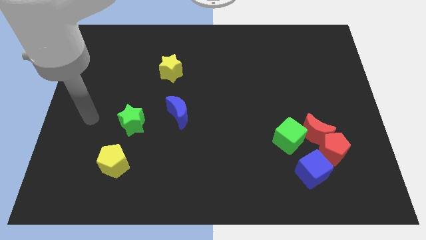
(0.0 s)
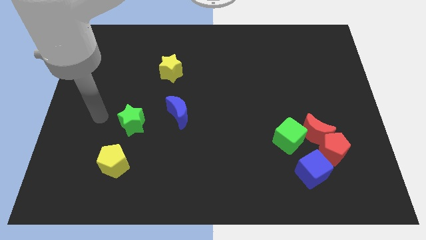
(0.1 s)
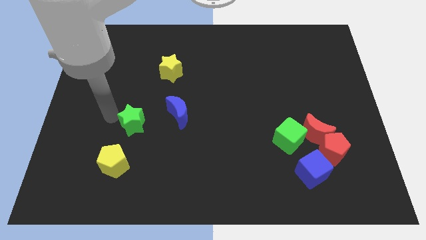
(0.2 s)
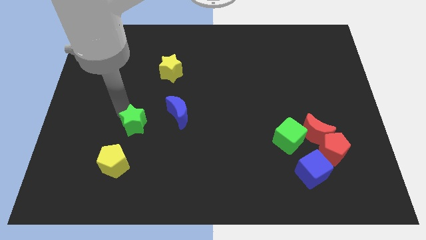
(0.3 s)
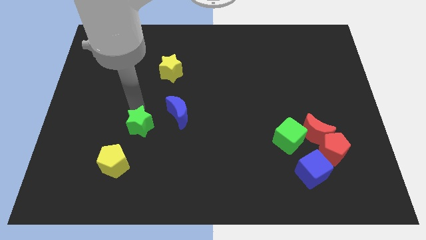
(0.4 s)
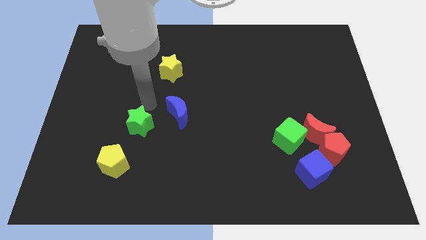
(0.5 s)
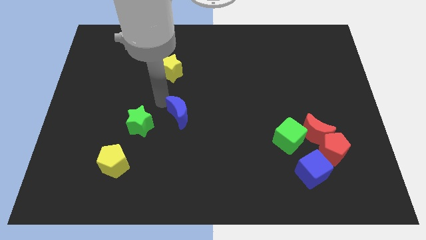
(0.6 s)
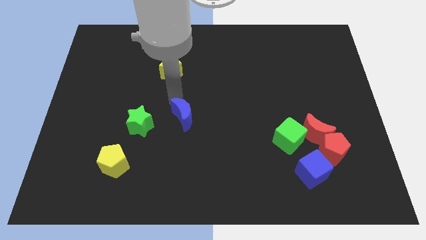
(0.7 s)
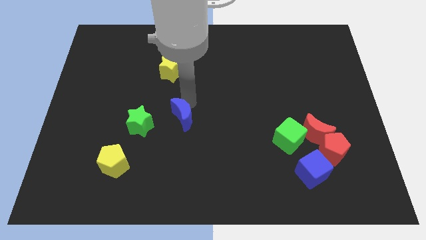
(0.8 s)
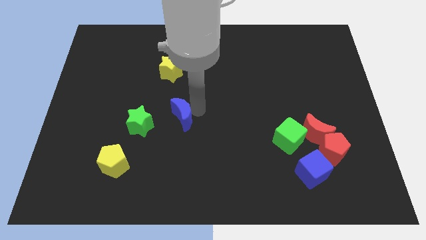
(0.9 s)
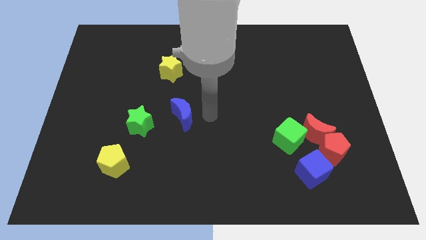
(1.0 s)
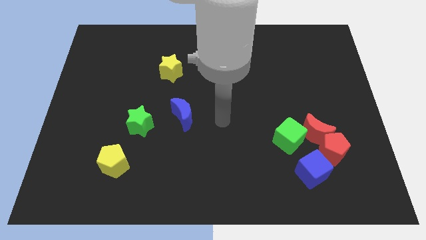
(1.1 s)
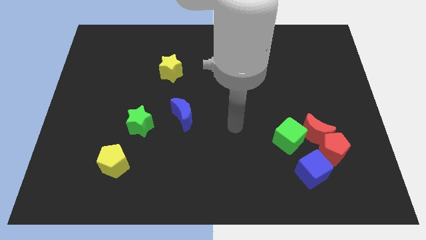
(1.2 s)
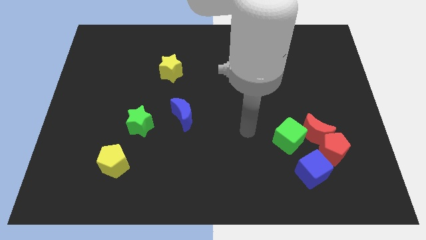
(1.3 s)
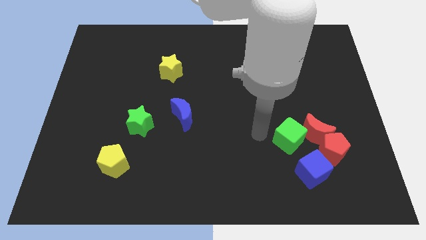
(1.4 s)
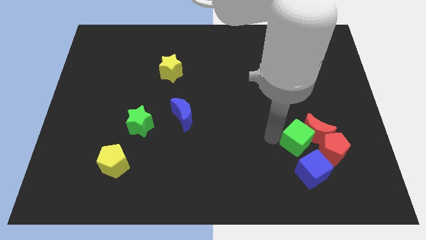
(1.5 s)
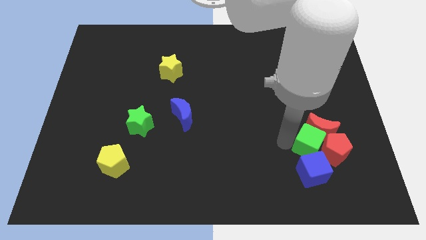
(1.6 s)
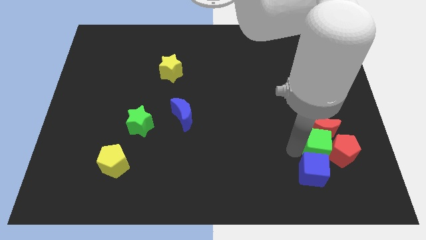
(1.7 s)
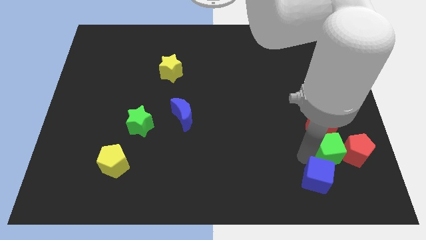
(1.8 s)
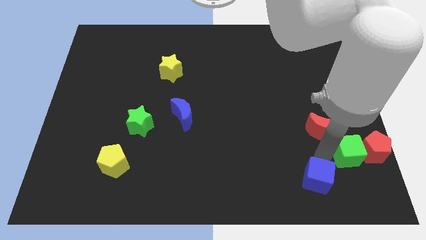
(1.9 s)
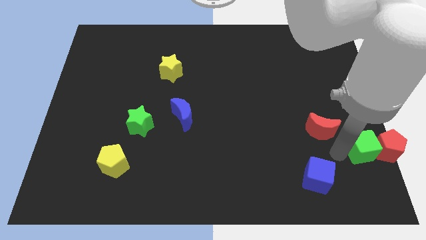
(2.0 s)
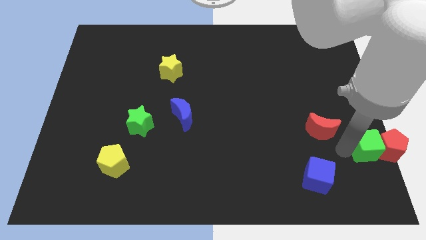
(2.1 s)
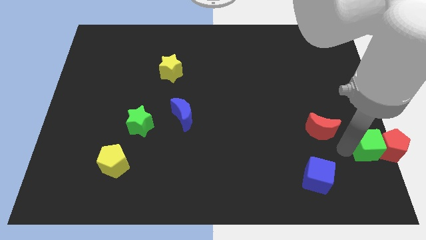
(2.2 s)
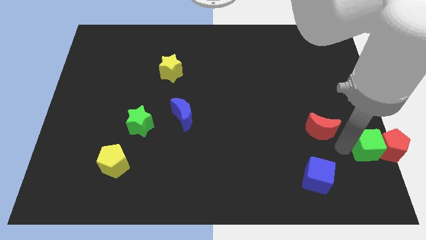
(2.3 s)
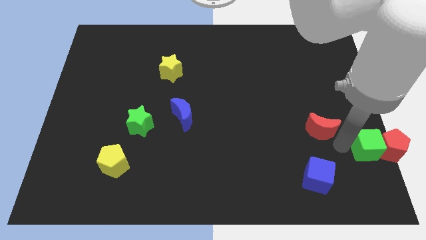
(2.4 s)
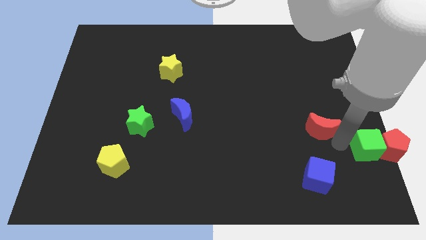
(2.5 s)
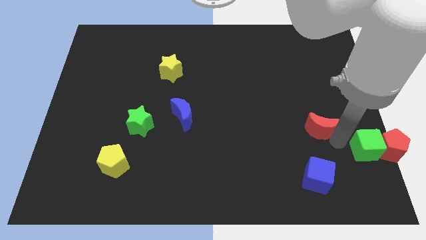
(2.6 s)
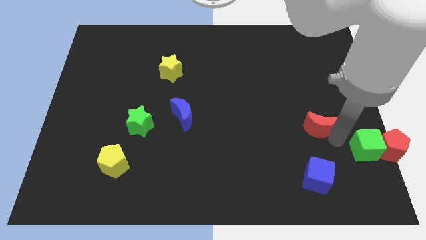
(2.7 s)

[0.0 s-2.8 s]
move the red moon away from the clump

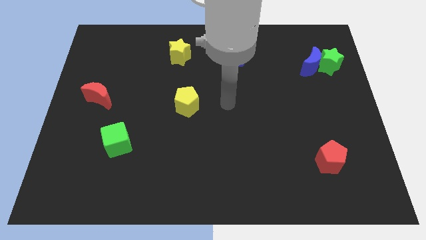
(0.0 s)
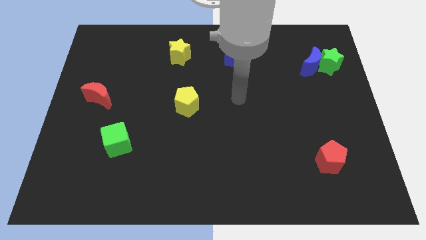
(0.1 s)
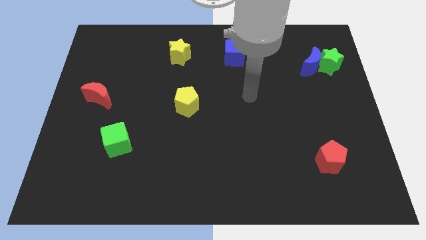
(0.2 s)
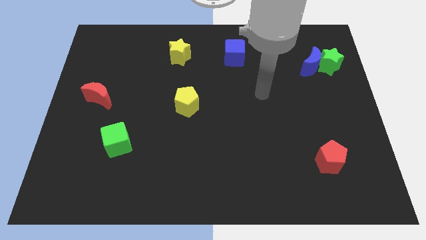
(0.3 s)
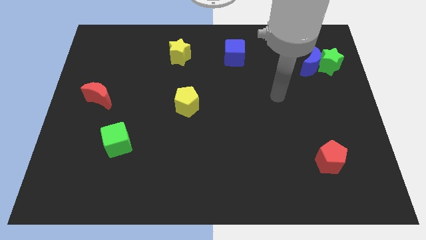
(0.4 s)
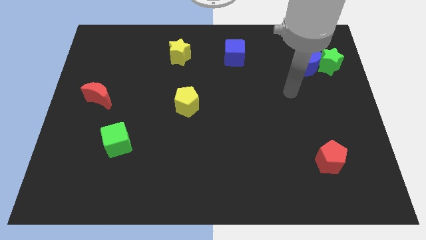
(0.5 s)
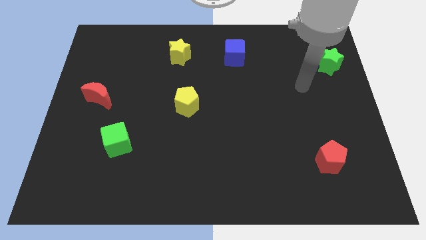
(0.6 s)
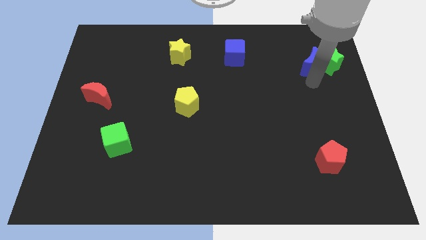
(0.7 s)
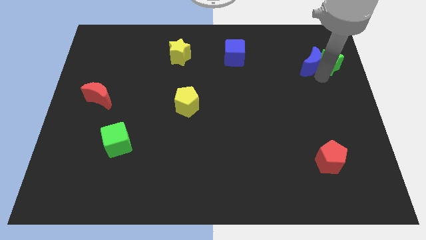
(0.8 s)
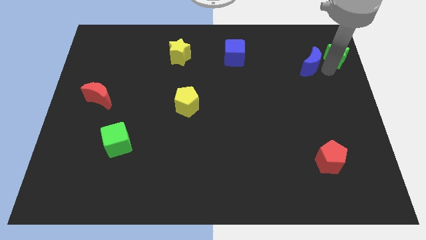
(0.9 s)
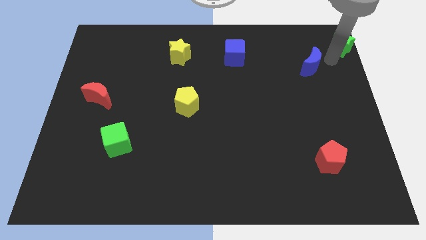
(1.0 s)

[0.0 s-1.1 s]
separate the blue moon from the green star

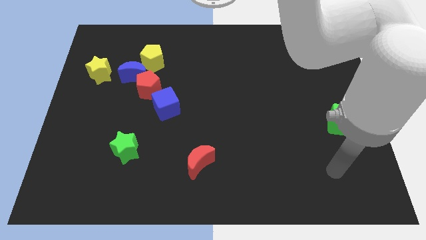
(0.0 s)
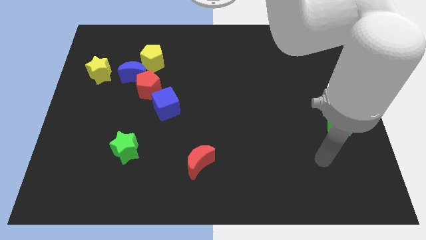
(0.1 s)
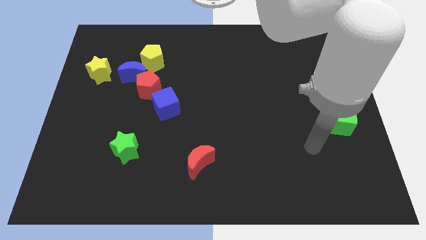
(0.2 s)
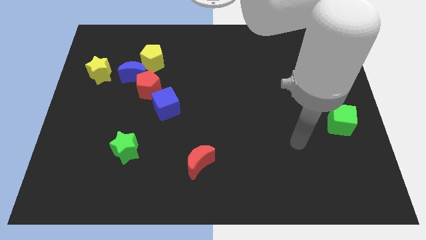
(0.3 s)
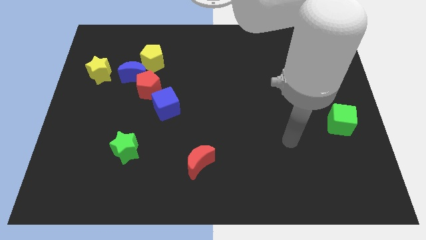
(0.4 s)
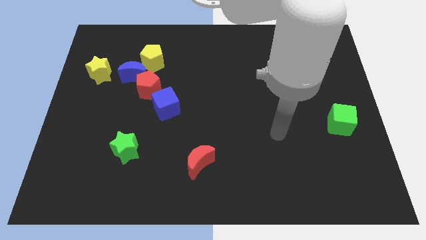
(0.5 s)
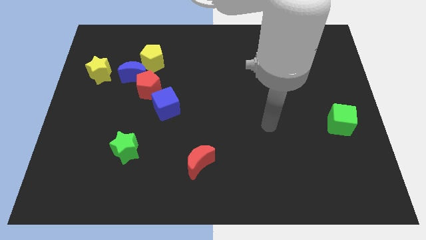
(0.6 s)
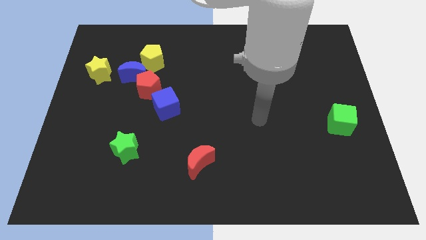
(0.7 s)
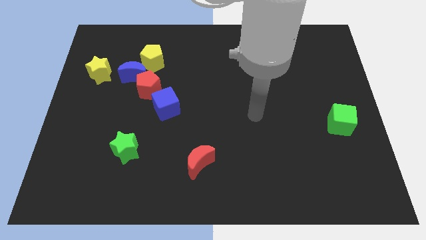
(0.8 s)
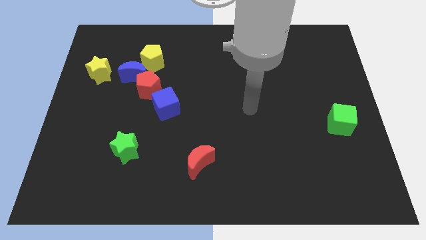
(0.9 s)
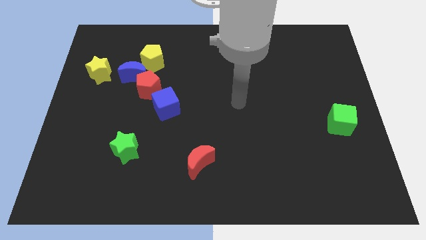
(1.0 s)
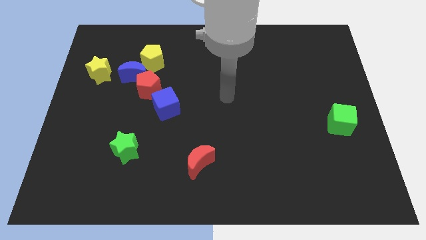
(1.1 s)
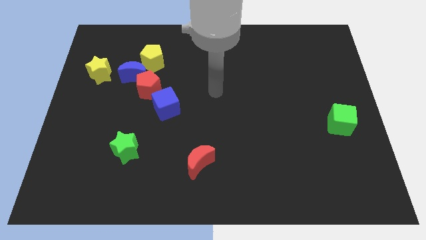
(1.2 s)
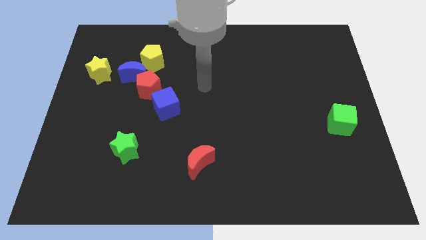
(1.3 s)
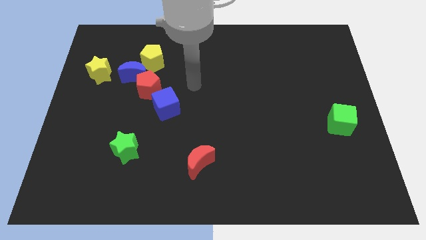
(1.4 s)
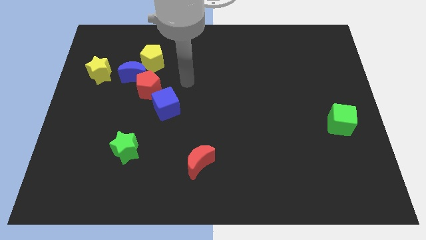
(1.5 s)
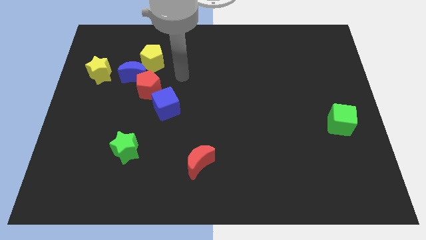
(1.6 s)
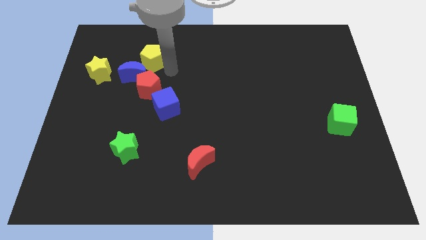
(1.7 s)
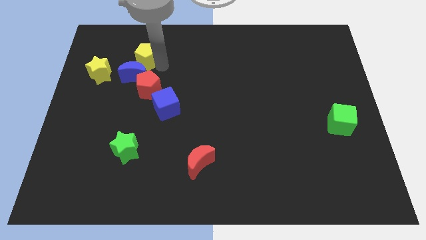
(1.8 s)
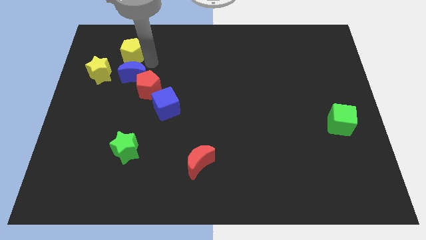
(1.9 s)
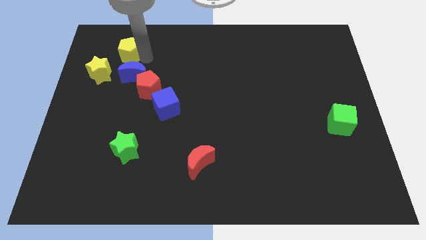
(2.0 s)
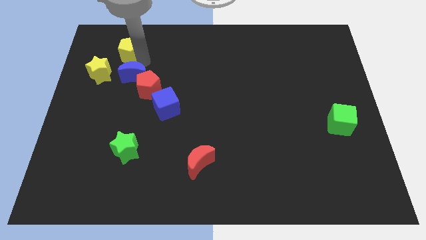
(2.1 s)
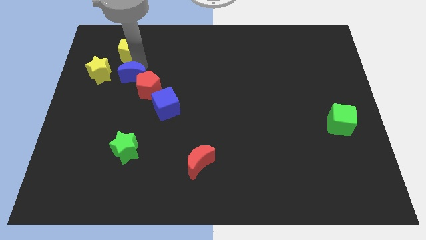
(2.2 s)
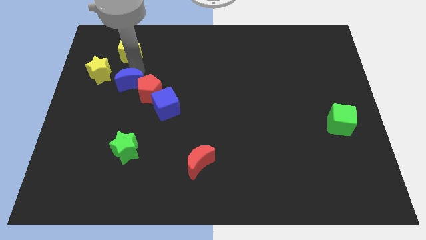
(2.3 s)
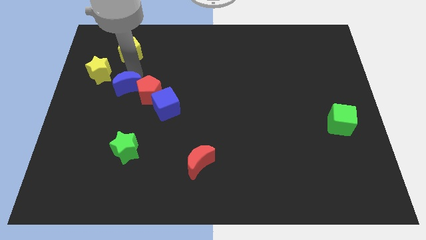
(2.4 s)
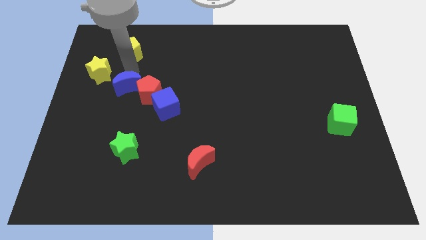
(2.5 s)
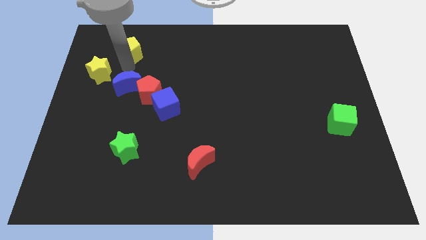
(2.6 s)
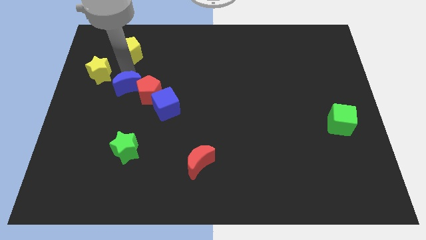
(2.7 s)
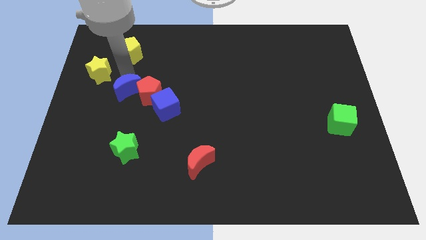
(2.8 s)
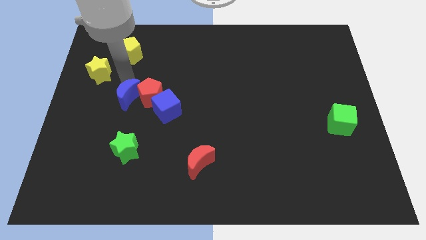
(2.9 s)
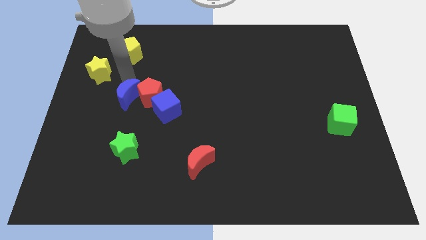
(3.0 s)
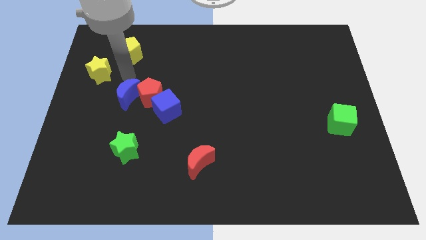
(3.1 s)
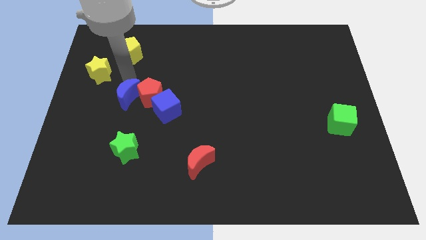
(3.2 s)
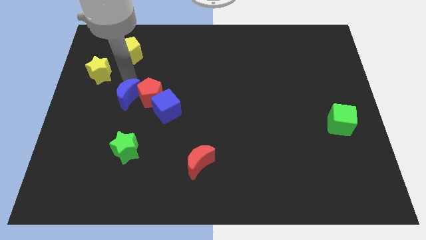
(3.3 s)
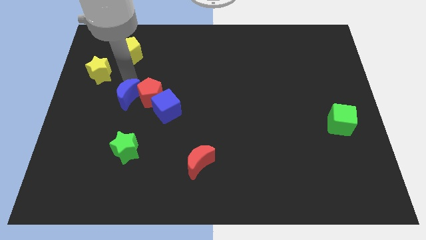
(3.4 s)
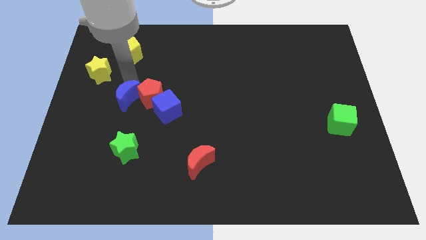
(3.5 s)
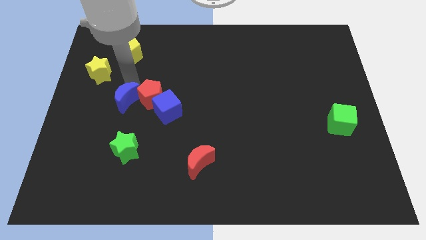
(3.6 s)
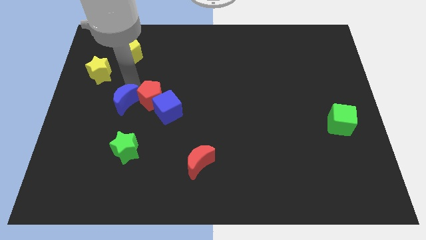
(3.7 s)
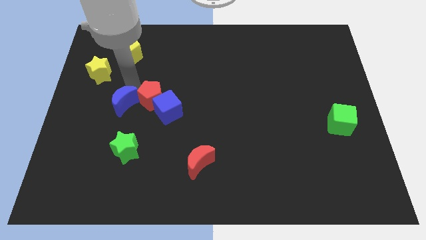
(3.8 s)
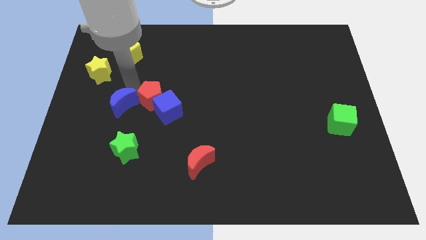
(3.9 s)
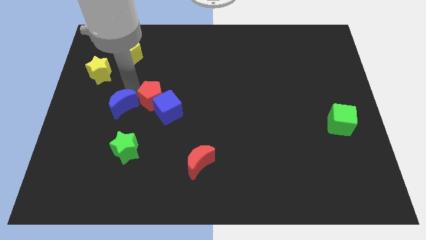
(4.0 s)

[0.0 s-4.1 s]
pull the blue moon apart from the red pentagon, yellow pentagon, and yellow star

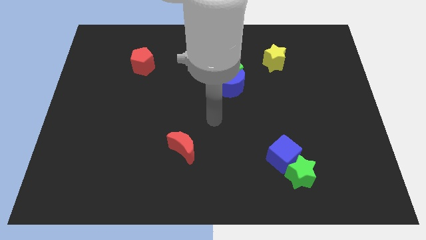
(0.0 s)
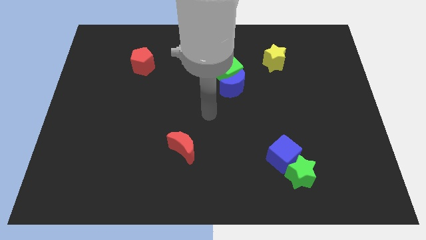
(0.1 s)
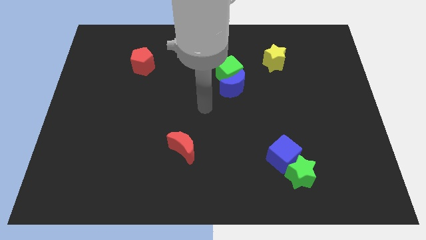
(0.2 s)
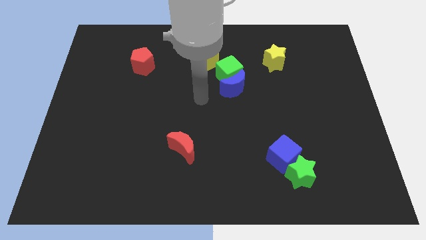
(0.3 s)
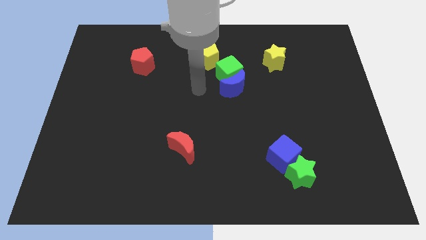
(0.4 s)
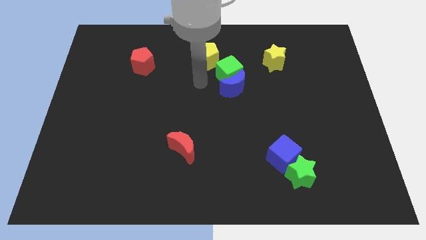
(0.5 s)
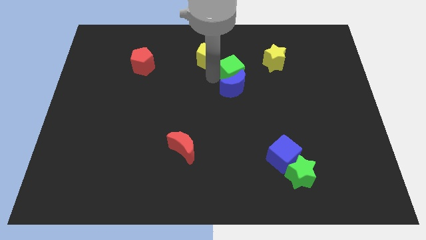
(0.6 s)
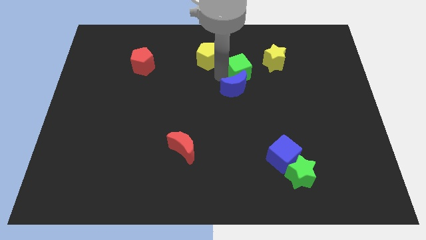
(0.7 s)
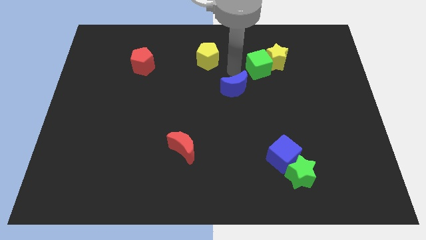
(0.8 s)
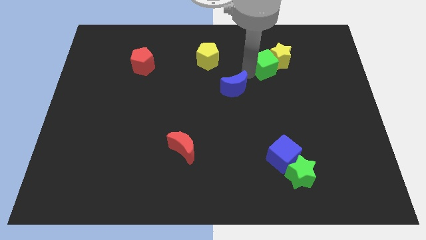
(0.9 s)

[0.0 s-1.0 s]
move the blue moon away from the green cube

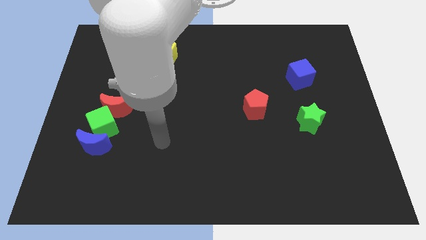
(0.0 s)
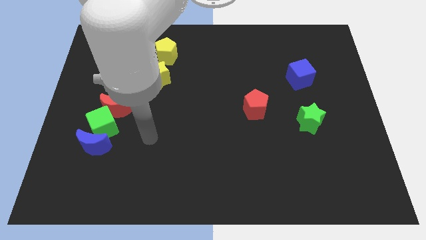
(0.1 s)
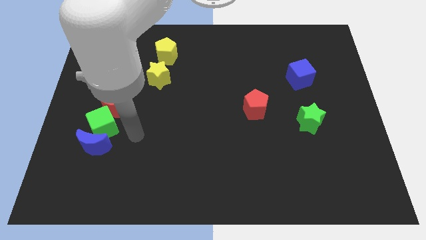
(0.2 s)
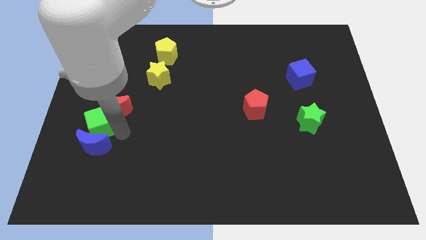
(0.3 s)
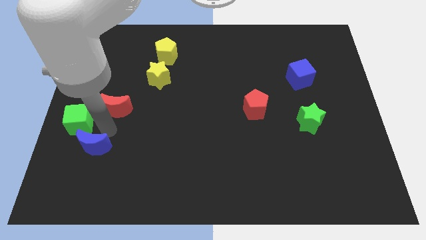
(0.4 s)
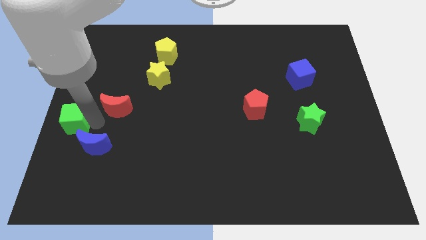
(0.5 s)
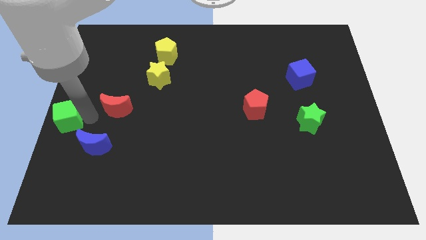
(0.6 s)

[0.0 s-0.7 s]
separate the red moon from the green cube
